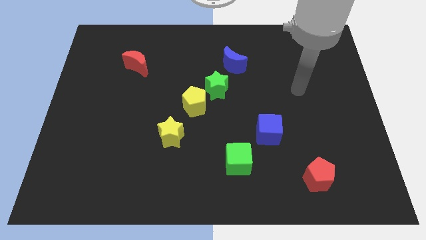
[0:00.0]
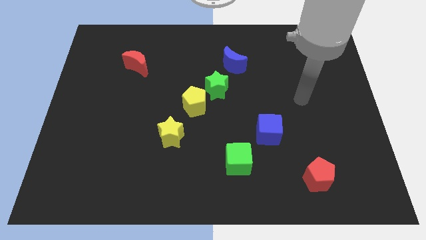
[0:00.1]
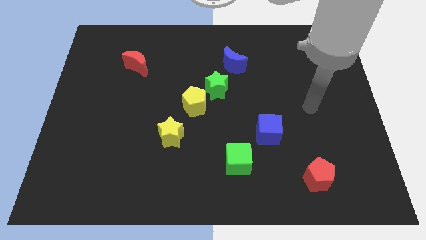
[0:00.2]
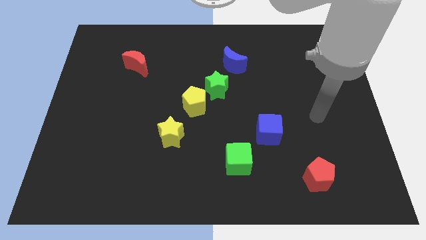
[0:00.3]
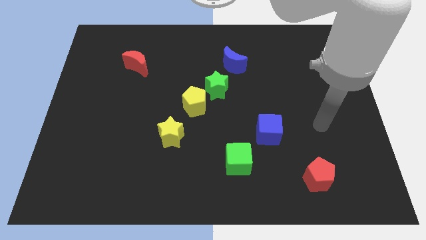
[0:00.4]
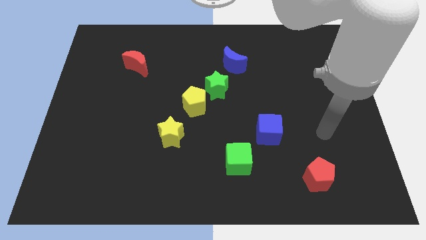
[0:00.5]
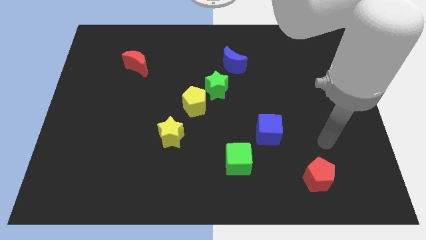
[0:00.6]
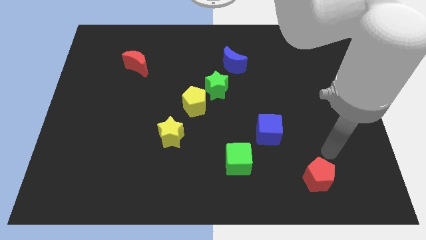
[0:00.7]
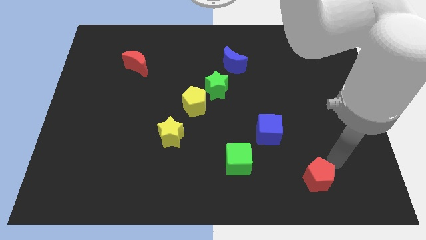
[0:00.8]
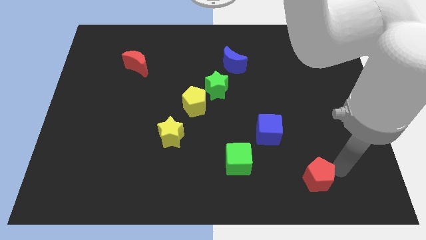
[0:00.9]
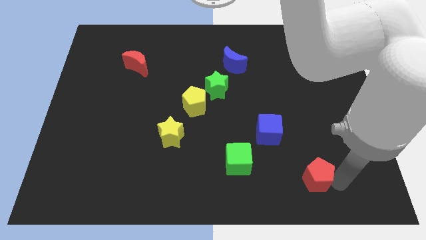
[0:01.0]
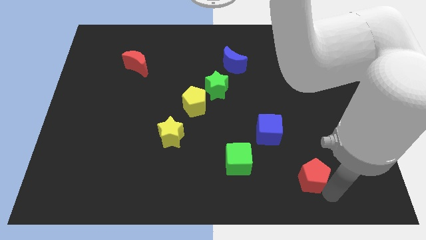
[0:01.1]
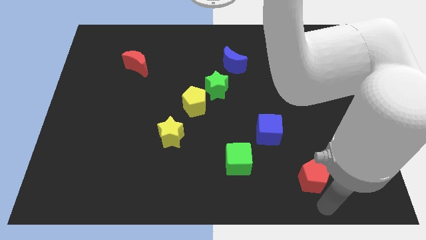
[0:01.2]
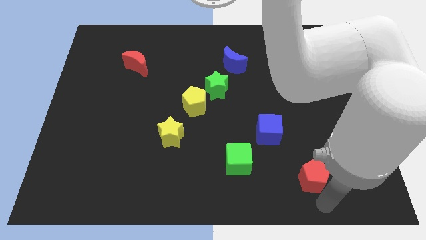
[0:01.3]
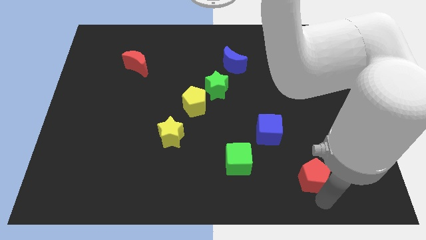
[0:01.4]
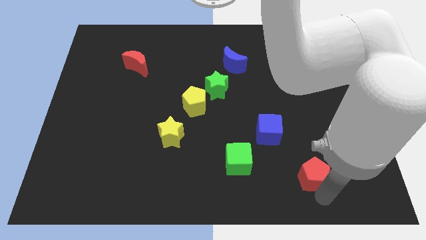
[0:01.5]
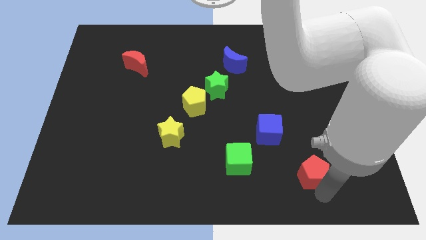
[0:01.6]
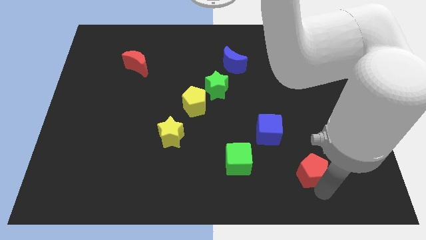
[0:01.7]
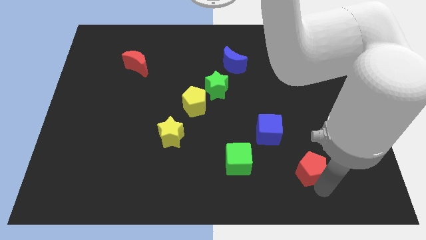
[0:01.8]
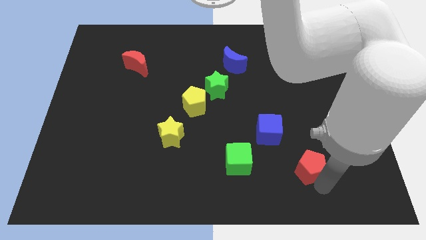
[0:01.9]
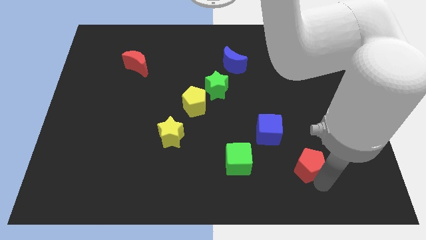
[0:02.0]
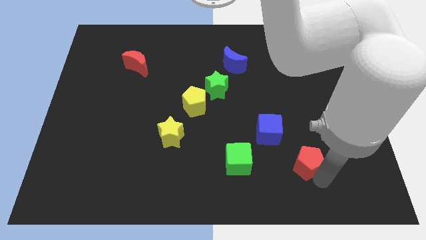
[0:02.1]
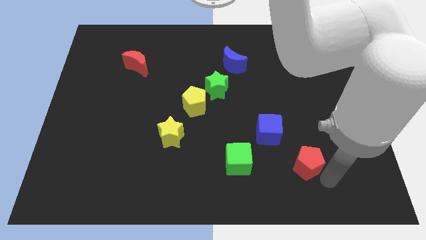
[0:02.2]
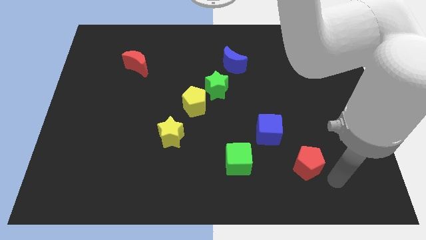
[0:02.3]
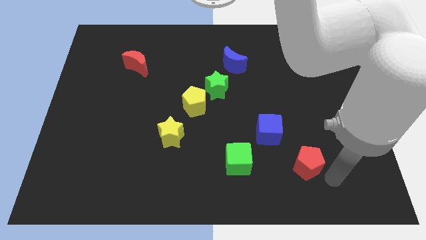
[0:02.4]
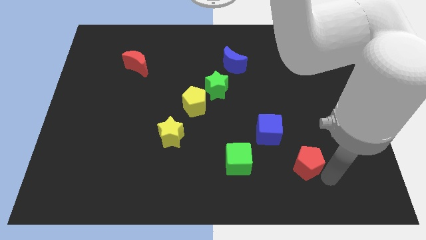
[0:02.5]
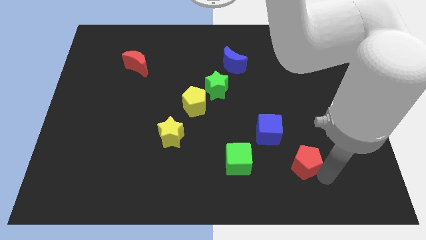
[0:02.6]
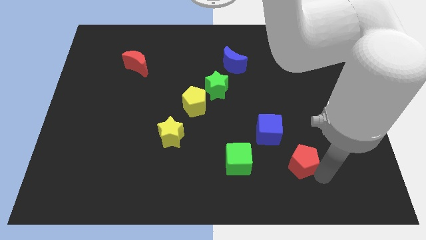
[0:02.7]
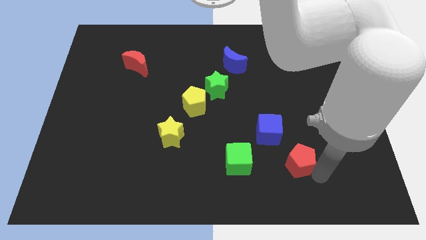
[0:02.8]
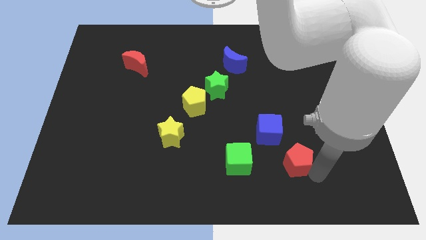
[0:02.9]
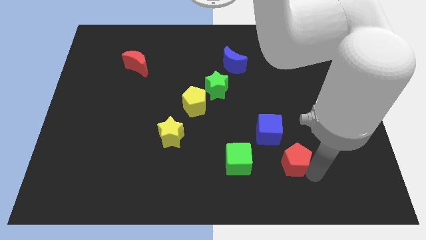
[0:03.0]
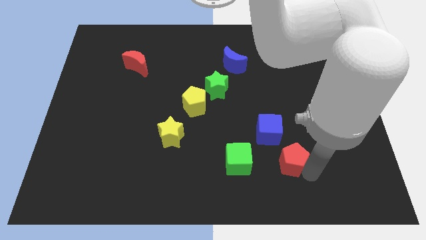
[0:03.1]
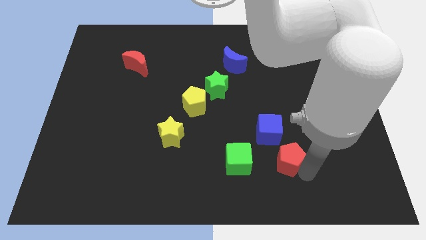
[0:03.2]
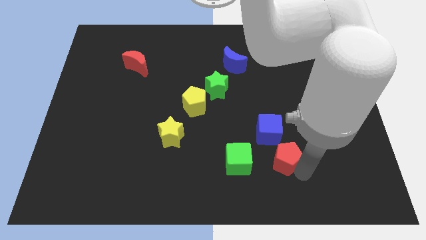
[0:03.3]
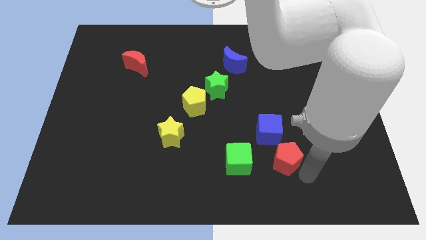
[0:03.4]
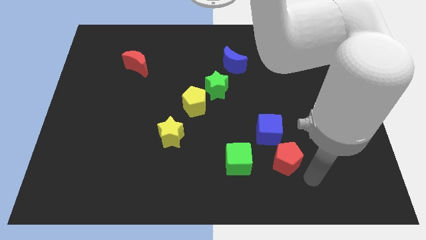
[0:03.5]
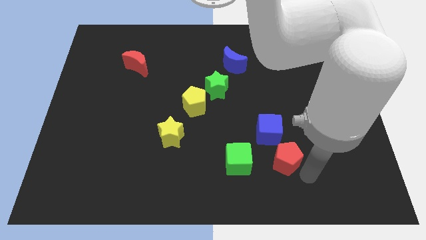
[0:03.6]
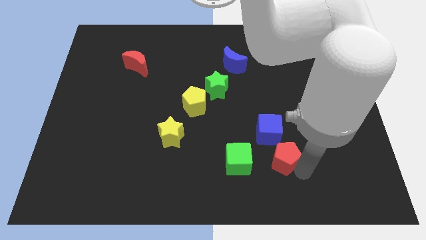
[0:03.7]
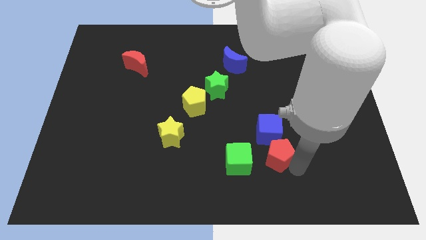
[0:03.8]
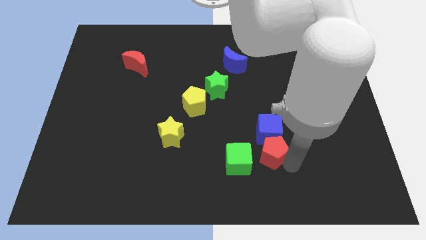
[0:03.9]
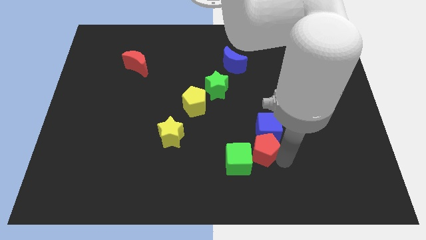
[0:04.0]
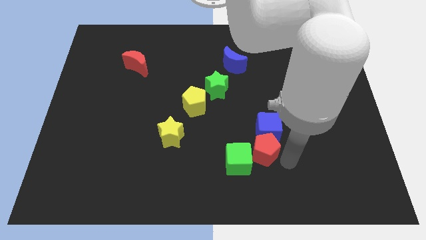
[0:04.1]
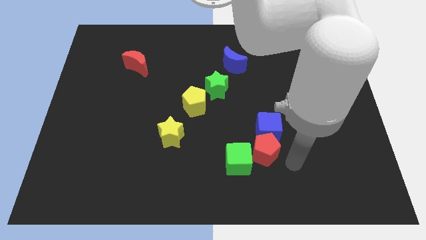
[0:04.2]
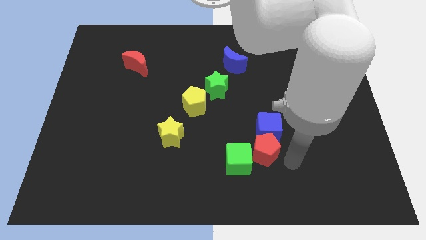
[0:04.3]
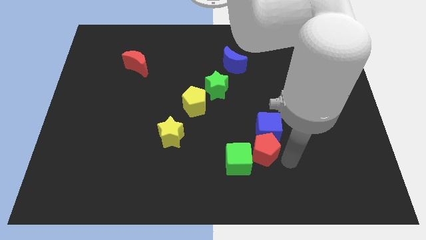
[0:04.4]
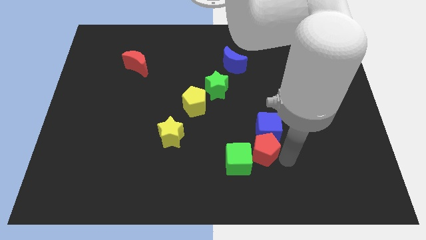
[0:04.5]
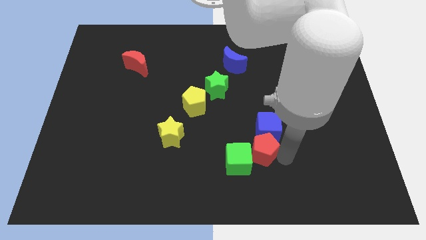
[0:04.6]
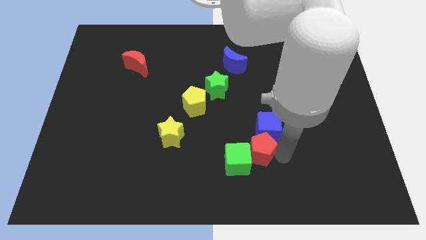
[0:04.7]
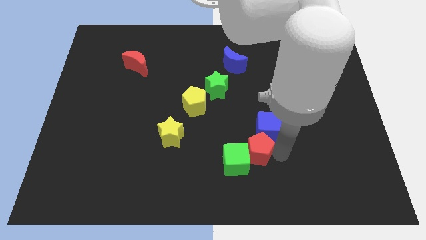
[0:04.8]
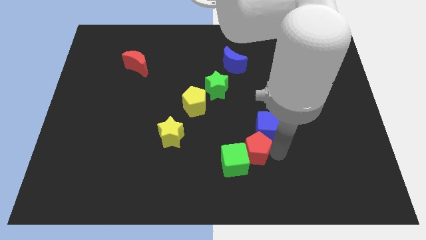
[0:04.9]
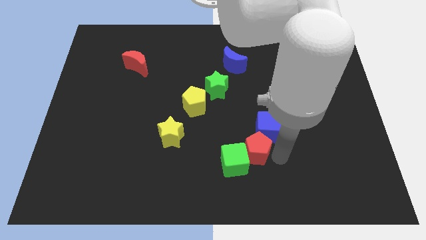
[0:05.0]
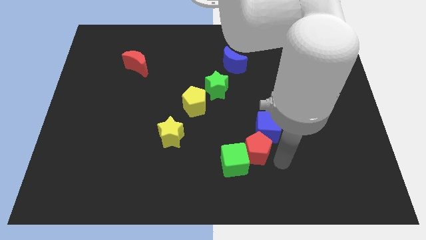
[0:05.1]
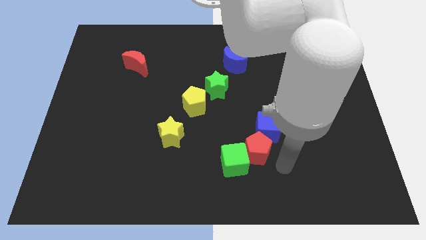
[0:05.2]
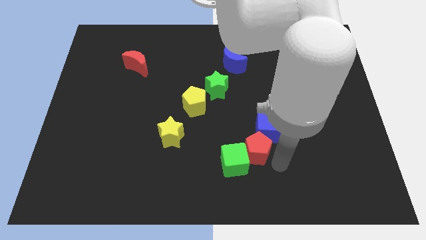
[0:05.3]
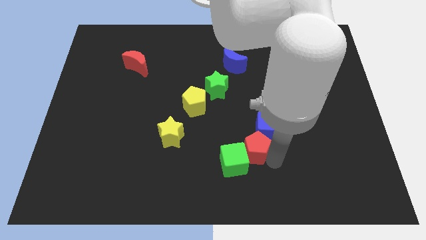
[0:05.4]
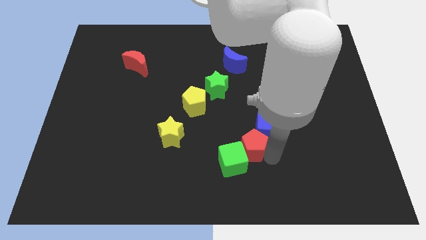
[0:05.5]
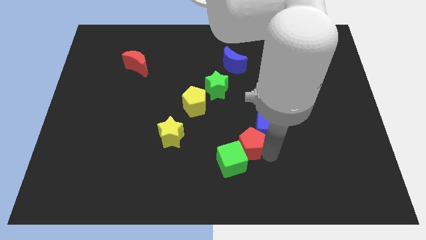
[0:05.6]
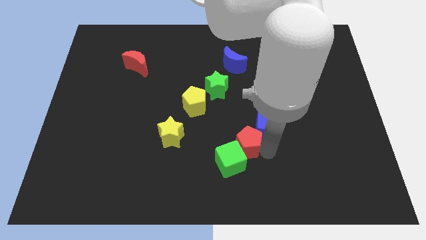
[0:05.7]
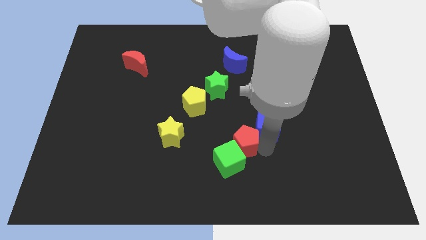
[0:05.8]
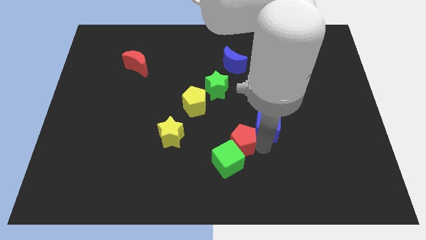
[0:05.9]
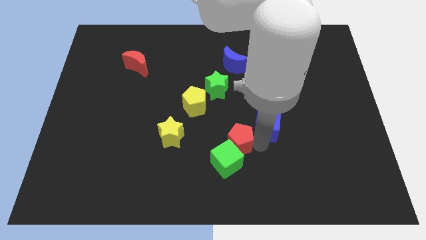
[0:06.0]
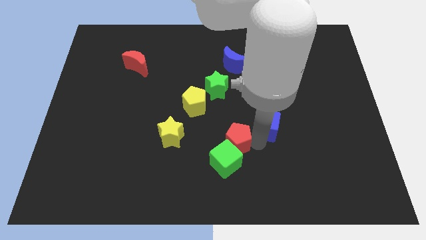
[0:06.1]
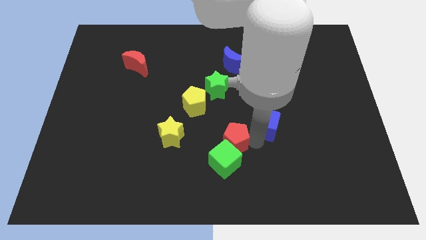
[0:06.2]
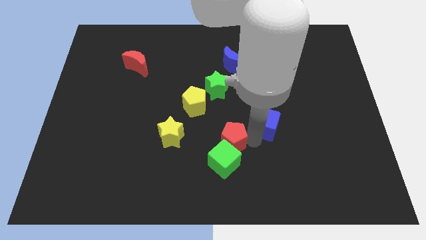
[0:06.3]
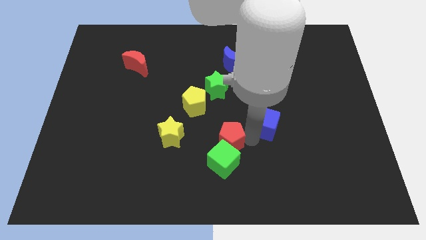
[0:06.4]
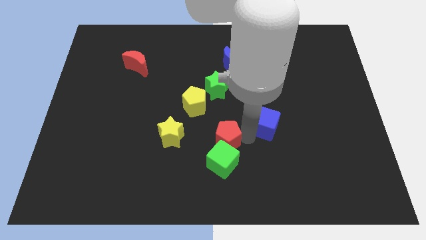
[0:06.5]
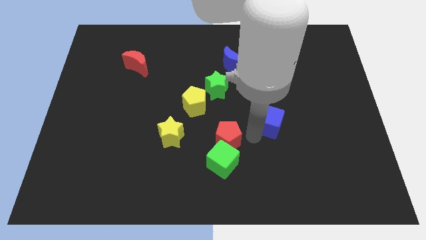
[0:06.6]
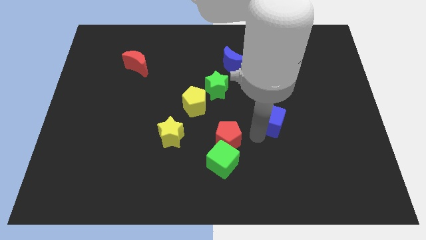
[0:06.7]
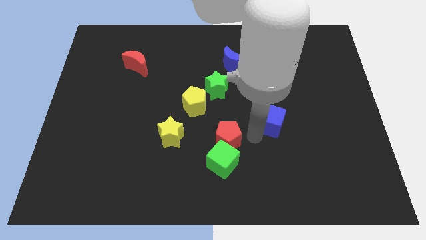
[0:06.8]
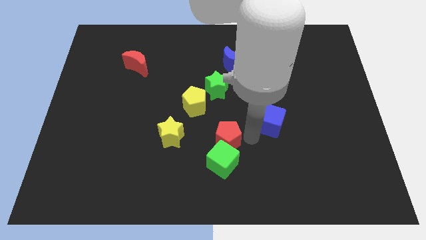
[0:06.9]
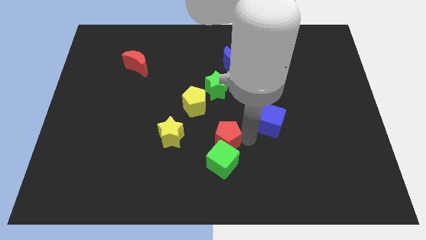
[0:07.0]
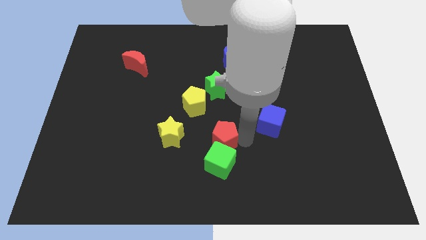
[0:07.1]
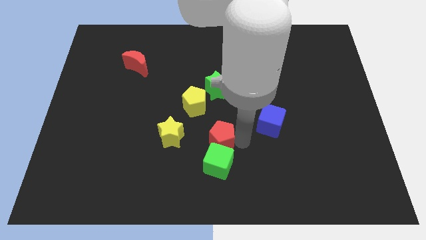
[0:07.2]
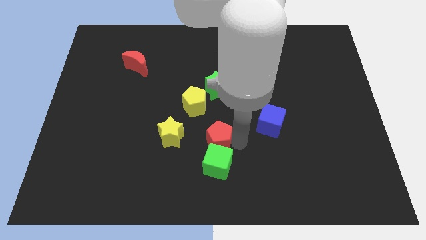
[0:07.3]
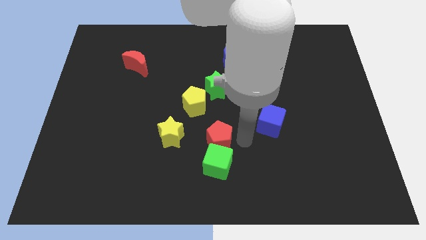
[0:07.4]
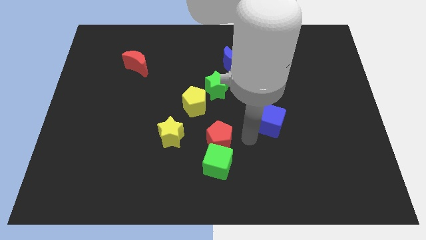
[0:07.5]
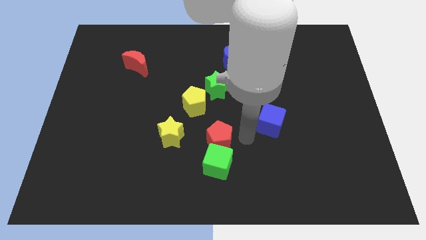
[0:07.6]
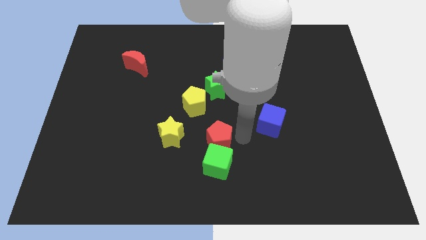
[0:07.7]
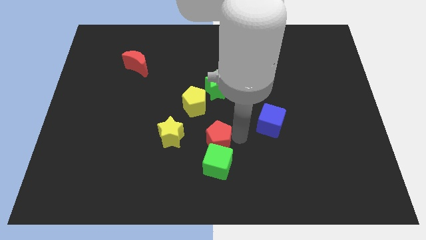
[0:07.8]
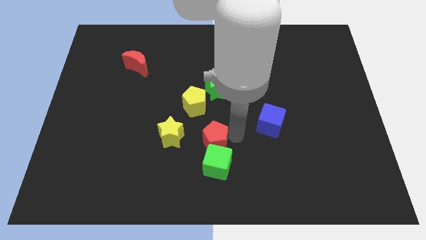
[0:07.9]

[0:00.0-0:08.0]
move the red pentagon below the yellow pentagon
